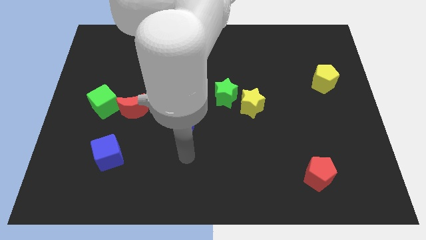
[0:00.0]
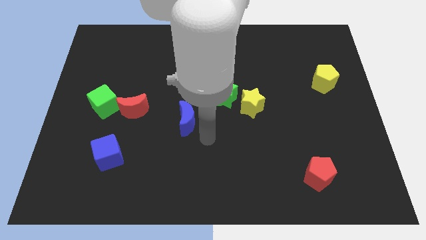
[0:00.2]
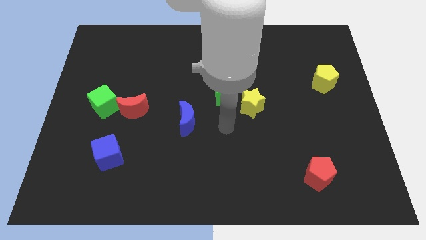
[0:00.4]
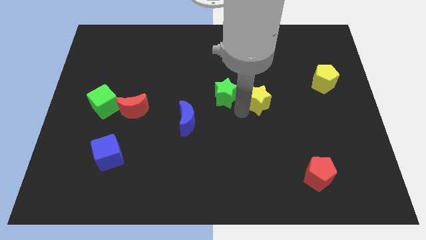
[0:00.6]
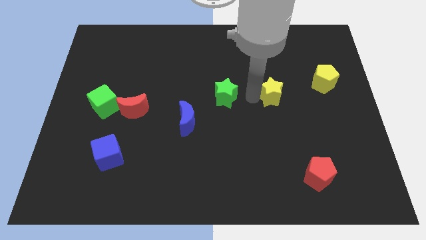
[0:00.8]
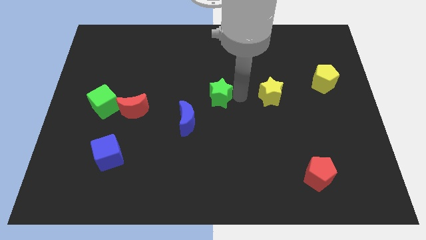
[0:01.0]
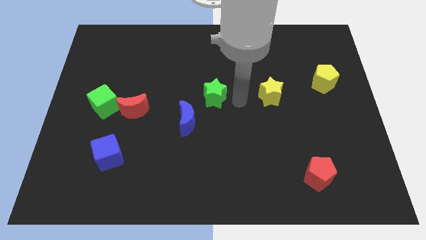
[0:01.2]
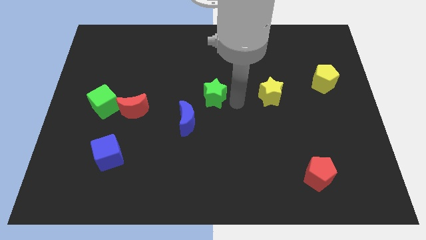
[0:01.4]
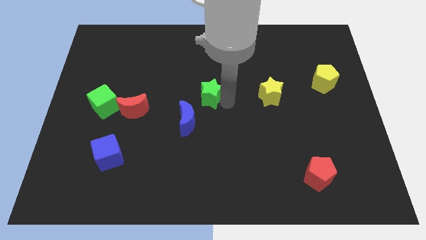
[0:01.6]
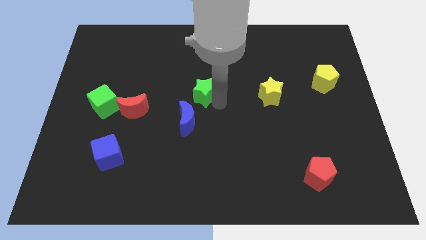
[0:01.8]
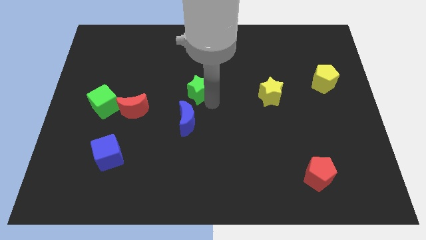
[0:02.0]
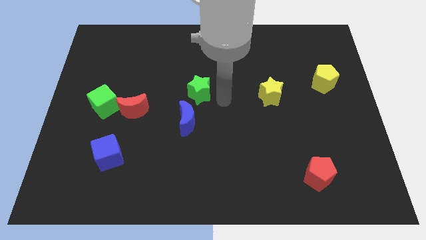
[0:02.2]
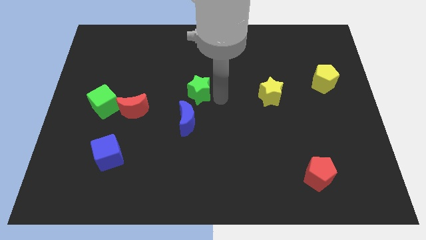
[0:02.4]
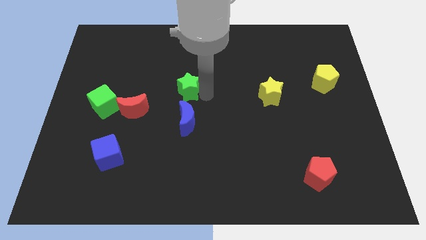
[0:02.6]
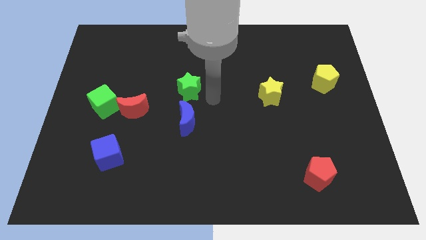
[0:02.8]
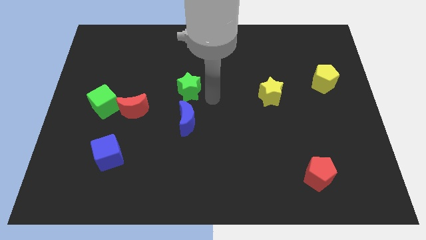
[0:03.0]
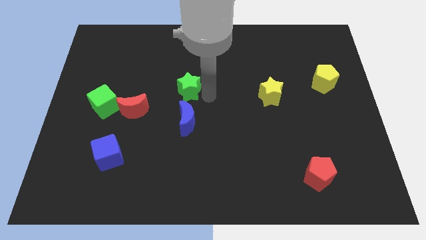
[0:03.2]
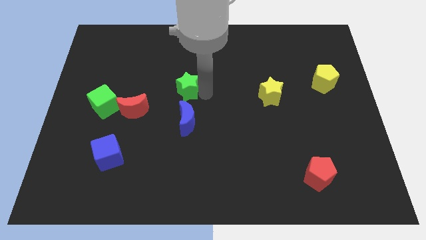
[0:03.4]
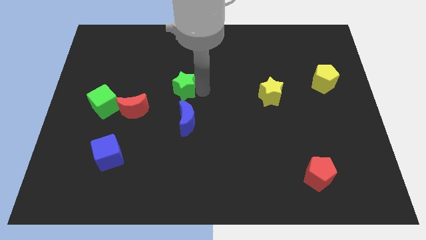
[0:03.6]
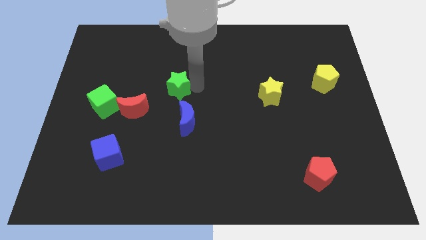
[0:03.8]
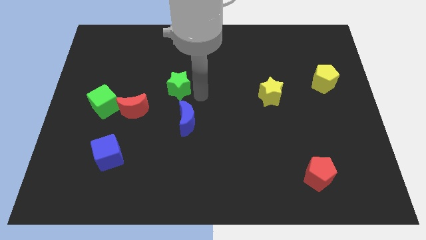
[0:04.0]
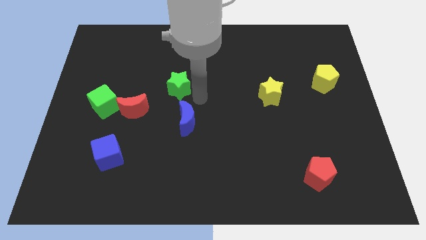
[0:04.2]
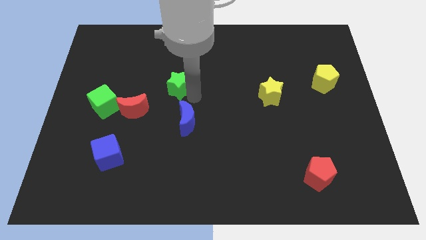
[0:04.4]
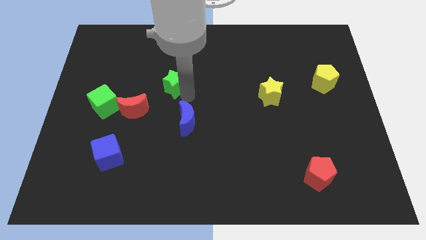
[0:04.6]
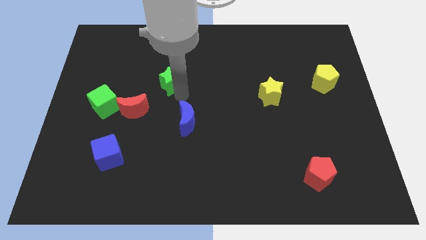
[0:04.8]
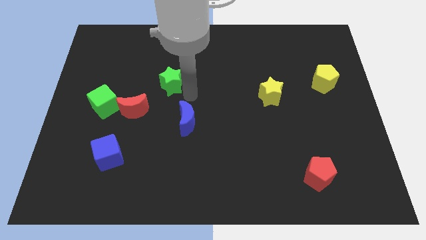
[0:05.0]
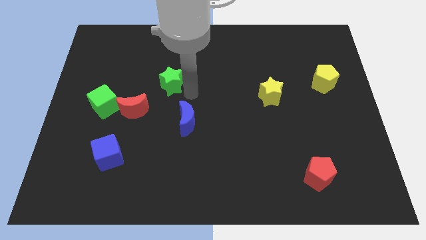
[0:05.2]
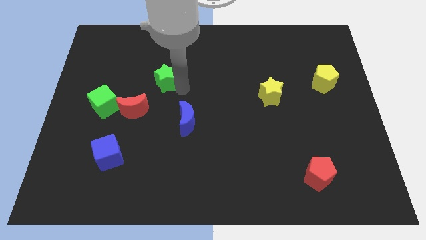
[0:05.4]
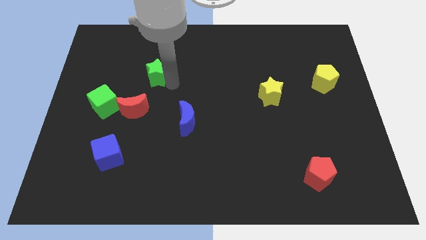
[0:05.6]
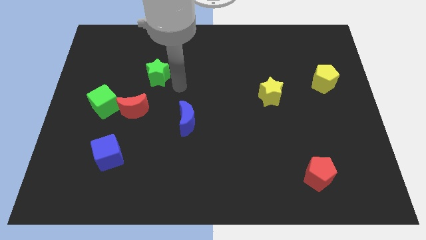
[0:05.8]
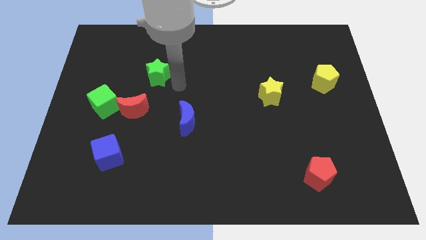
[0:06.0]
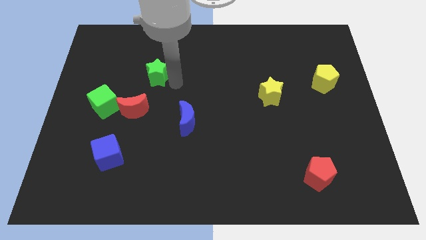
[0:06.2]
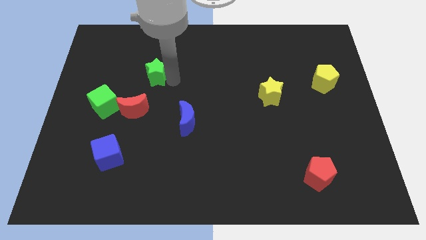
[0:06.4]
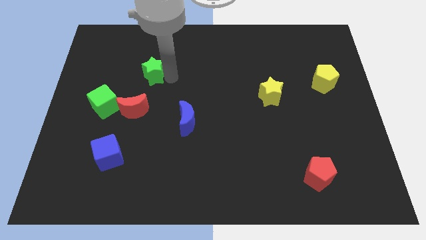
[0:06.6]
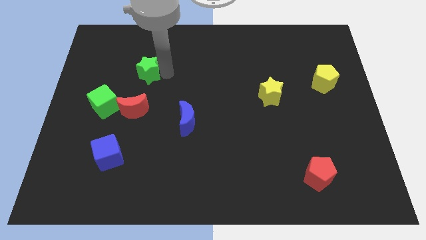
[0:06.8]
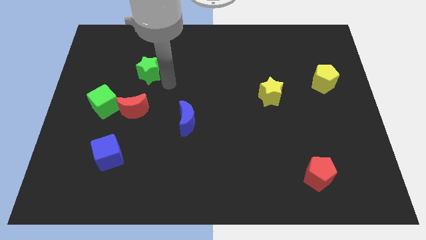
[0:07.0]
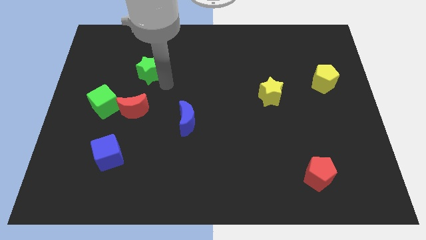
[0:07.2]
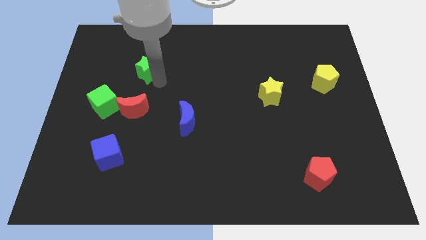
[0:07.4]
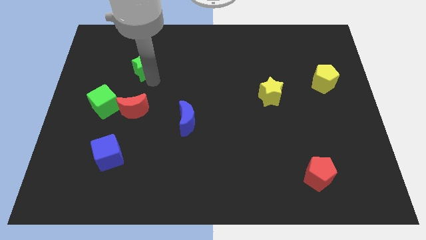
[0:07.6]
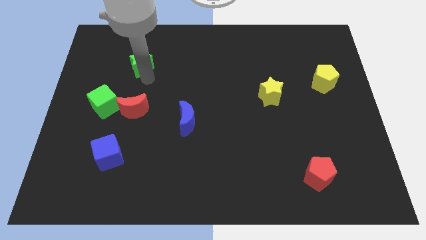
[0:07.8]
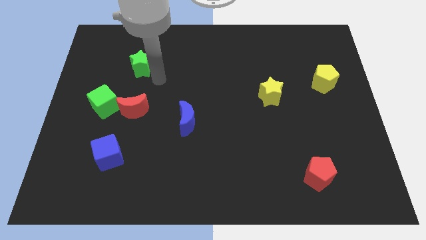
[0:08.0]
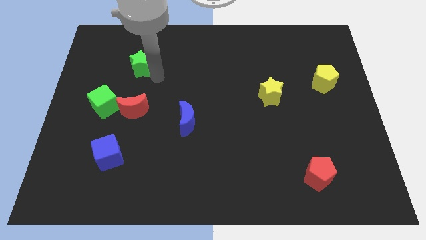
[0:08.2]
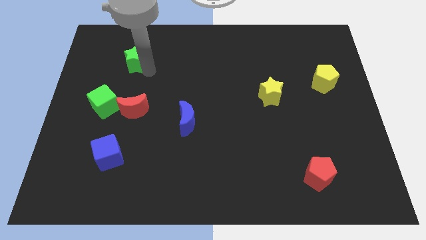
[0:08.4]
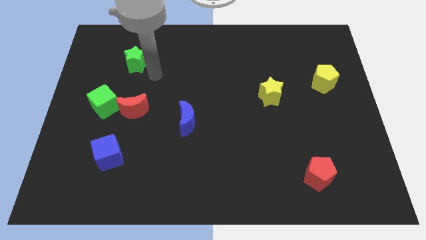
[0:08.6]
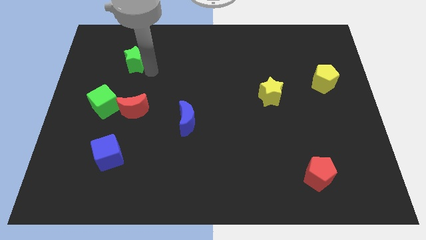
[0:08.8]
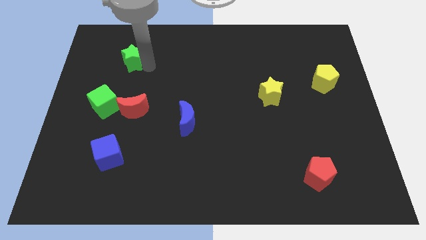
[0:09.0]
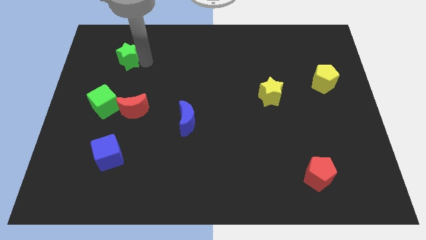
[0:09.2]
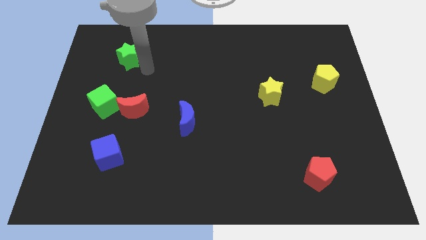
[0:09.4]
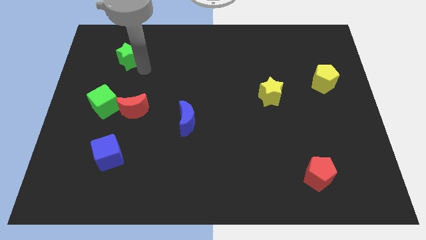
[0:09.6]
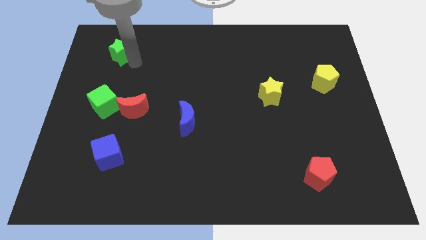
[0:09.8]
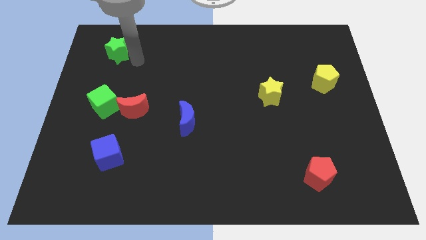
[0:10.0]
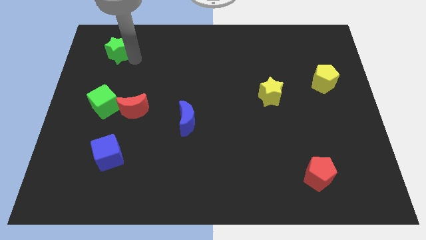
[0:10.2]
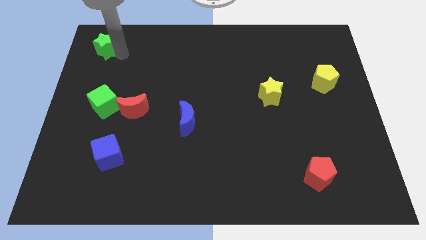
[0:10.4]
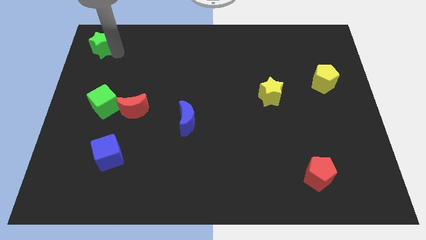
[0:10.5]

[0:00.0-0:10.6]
slide the green star to the top left of the board

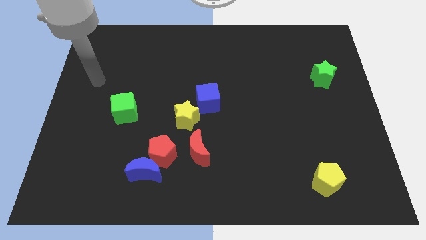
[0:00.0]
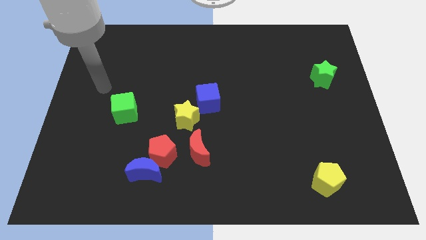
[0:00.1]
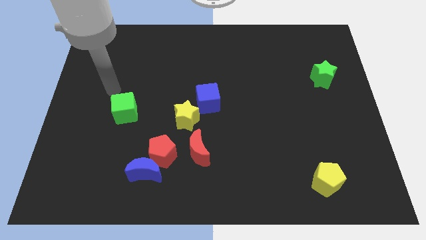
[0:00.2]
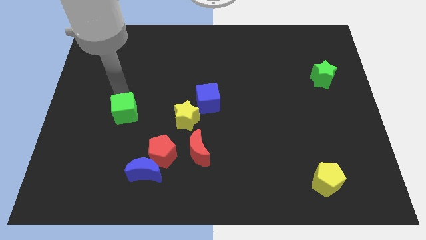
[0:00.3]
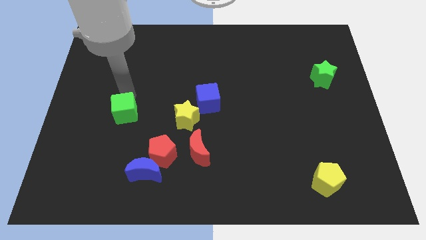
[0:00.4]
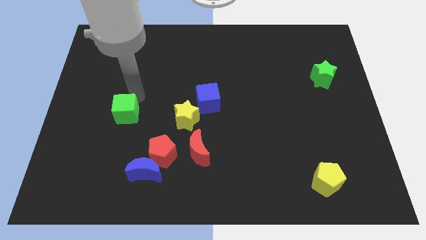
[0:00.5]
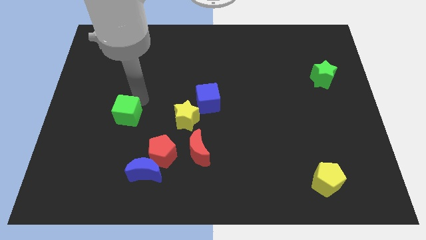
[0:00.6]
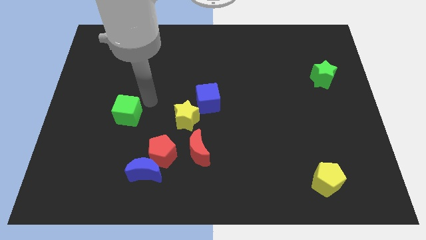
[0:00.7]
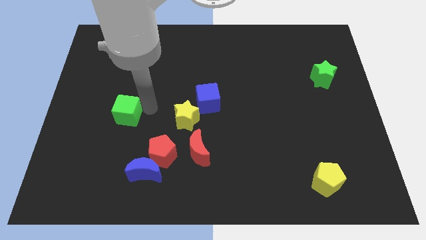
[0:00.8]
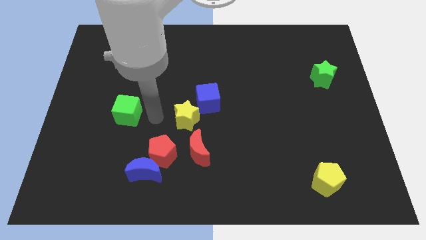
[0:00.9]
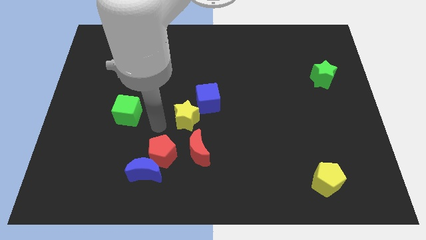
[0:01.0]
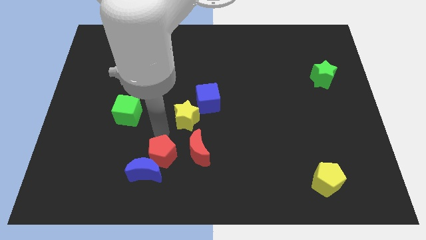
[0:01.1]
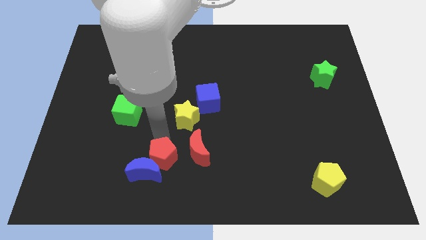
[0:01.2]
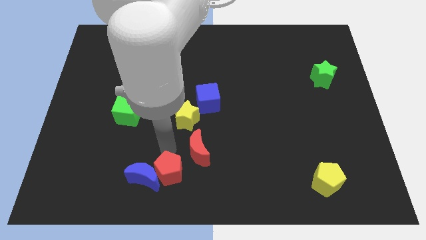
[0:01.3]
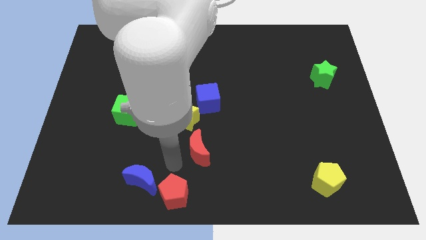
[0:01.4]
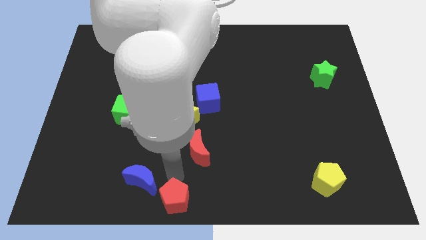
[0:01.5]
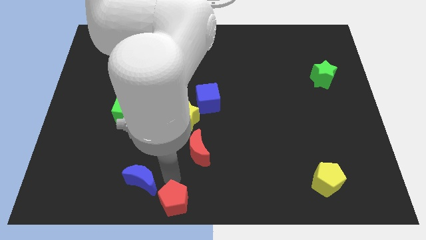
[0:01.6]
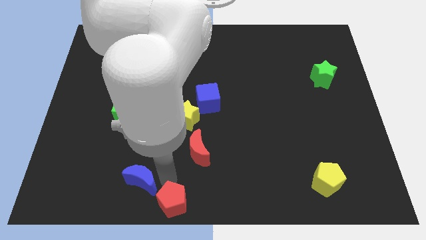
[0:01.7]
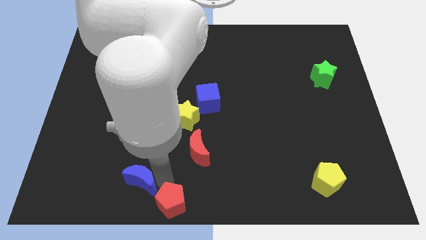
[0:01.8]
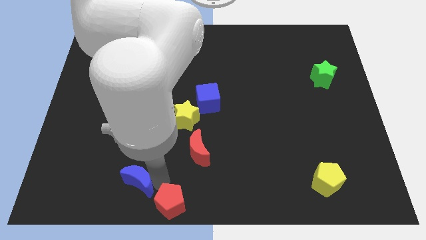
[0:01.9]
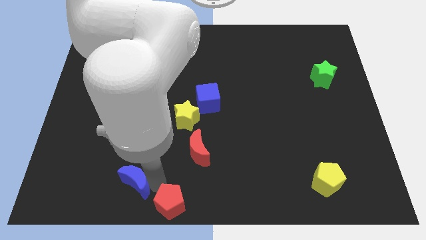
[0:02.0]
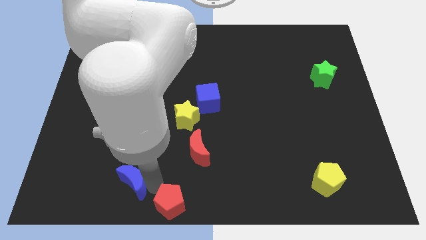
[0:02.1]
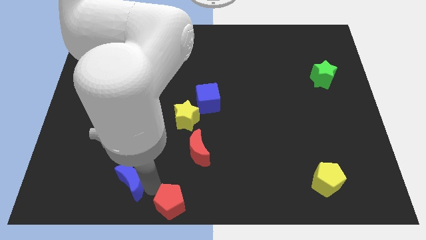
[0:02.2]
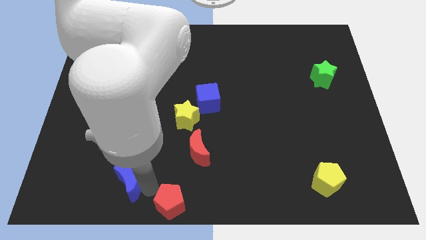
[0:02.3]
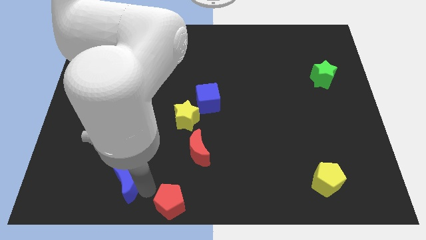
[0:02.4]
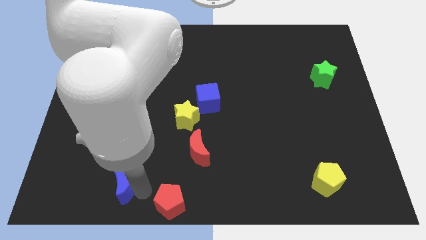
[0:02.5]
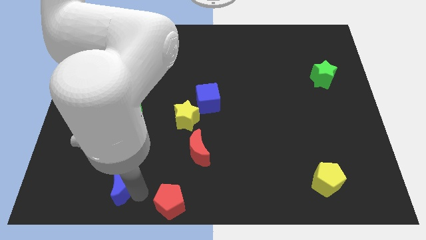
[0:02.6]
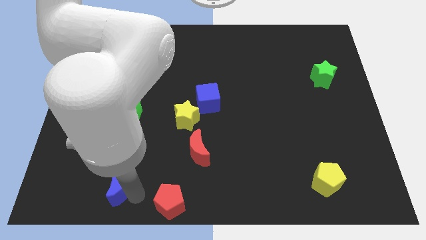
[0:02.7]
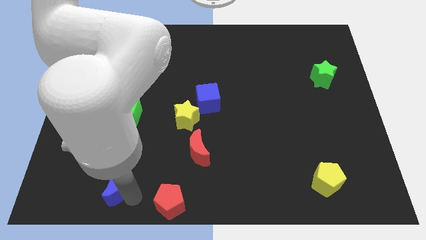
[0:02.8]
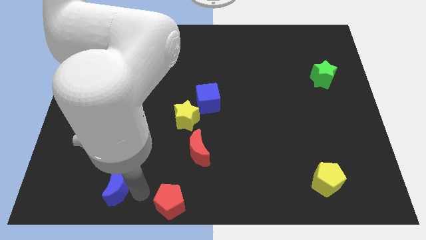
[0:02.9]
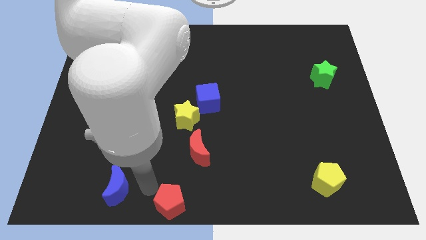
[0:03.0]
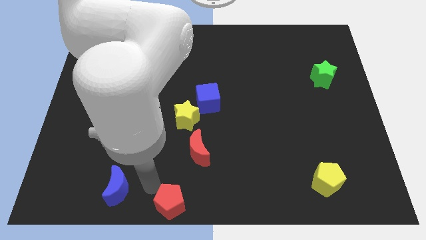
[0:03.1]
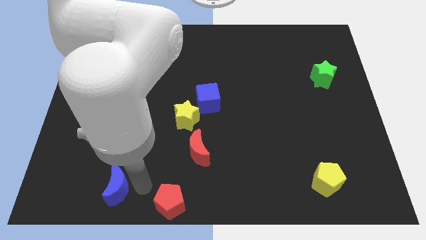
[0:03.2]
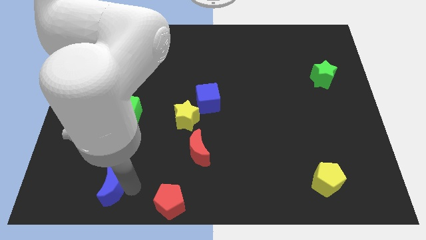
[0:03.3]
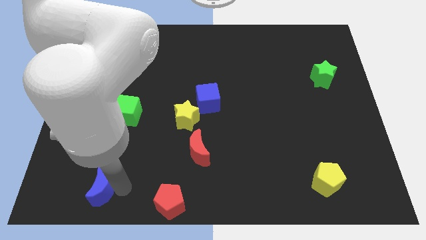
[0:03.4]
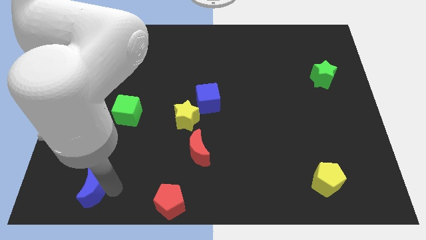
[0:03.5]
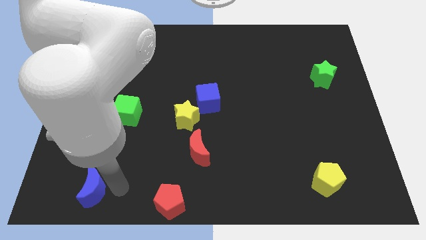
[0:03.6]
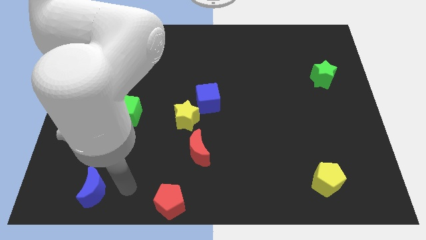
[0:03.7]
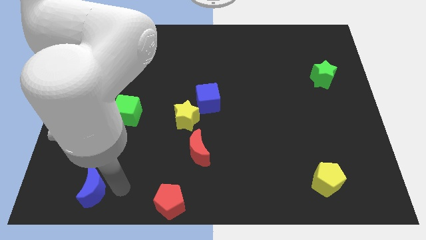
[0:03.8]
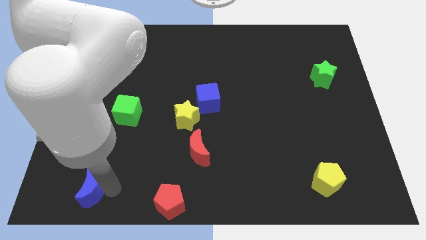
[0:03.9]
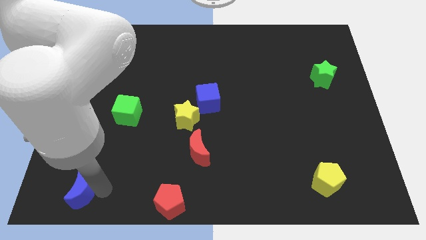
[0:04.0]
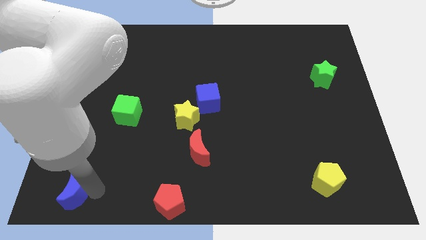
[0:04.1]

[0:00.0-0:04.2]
put the blue moon to the bottom left
